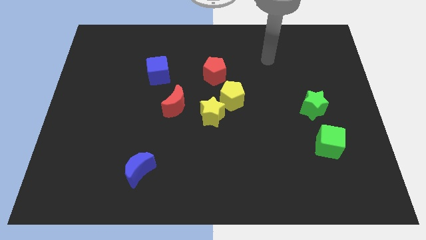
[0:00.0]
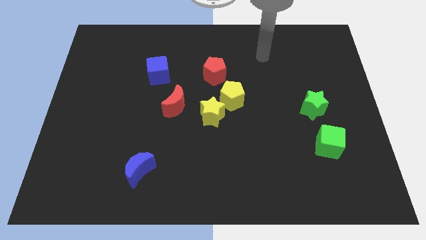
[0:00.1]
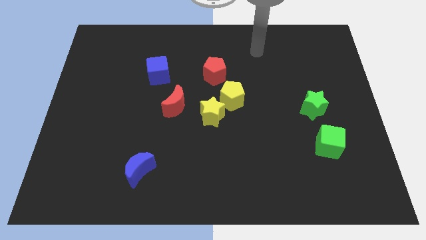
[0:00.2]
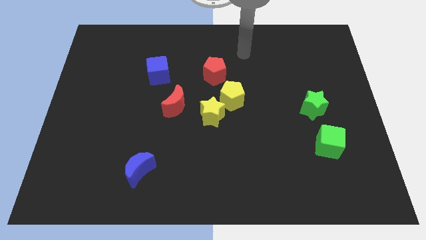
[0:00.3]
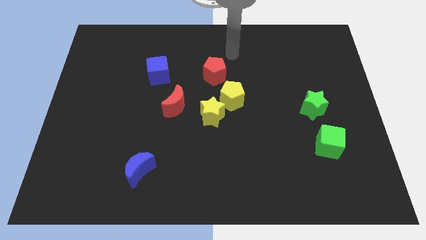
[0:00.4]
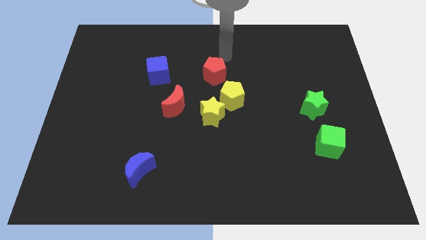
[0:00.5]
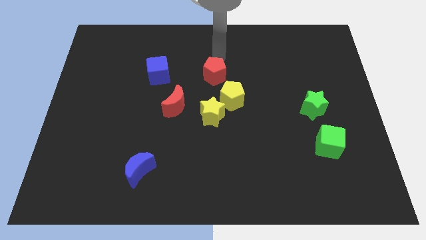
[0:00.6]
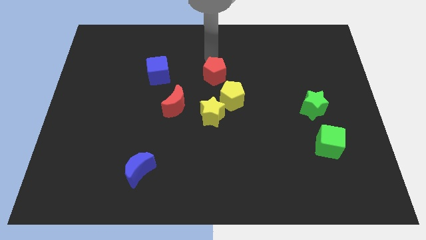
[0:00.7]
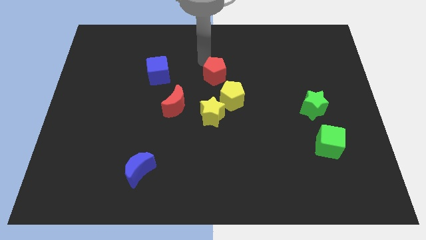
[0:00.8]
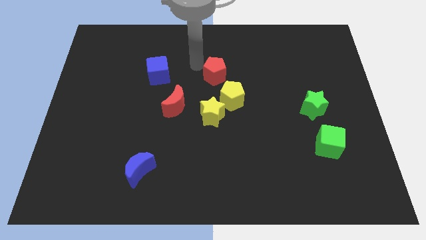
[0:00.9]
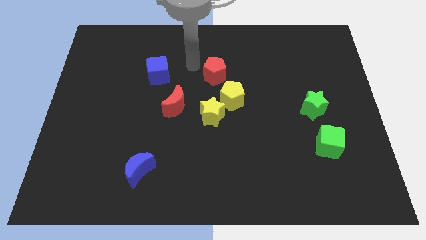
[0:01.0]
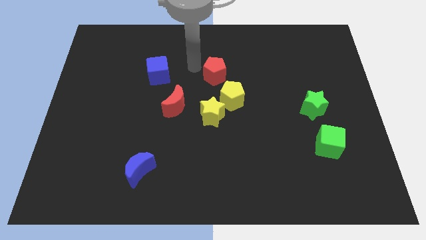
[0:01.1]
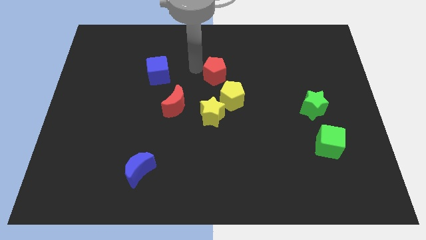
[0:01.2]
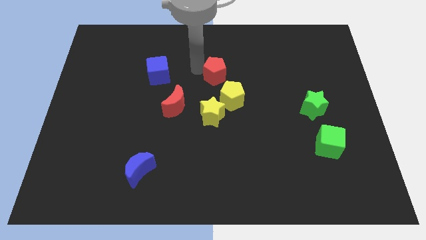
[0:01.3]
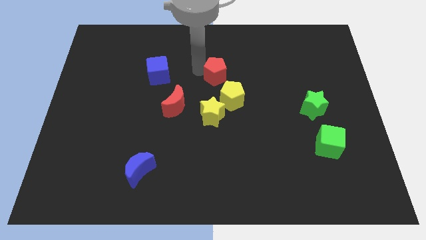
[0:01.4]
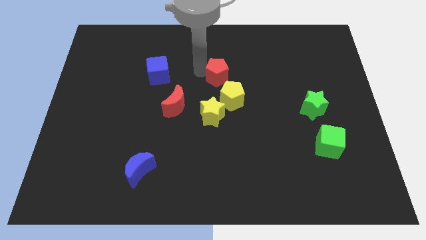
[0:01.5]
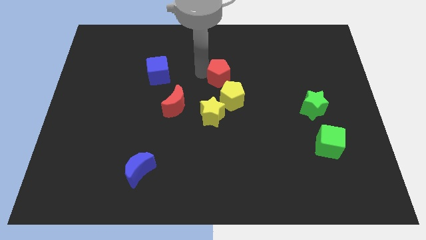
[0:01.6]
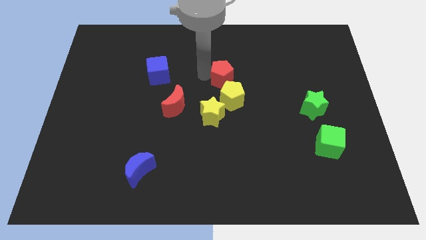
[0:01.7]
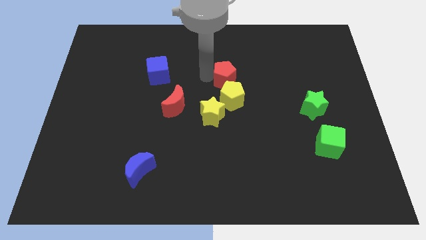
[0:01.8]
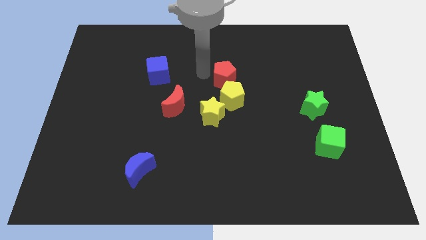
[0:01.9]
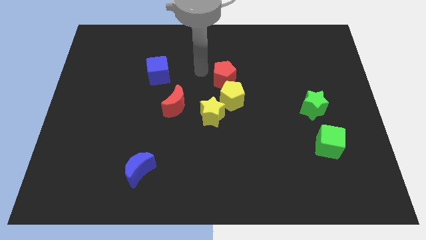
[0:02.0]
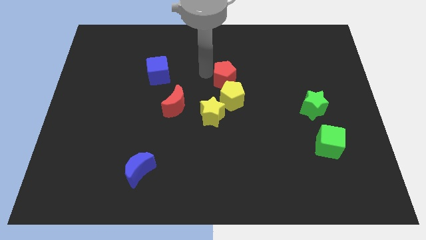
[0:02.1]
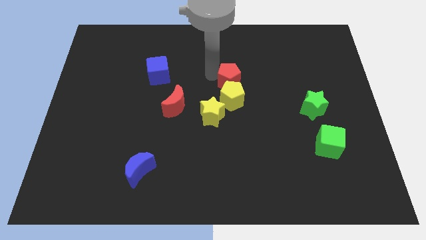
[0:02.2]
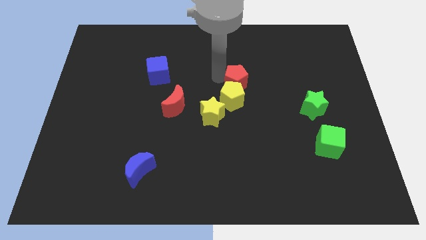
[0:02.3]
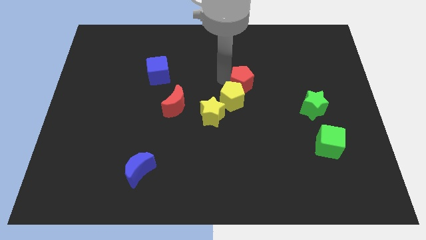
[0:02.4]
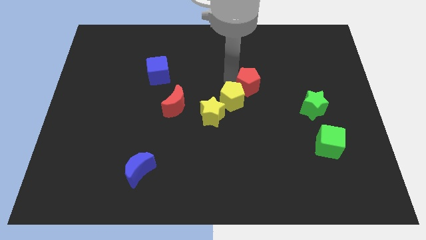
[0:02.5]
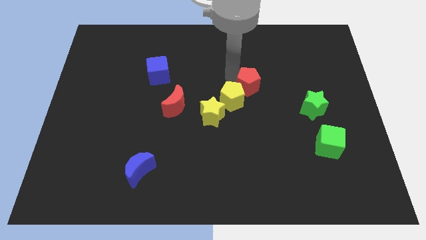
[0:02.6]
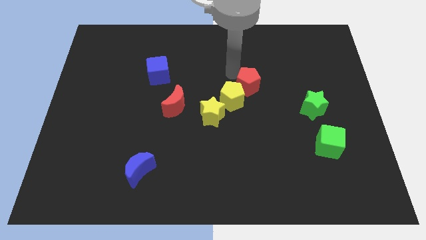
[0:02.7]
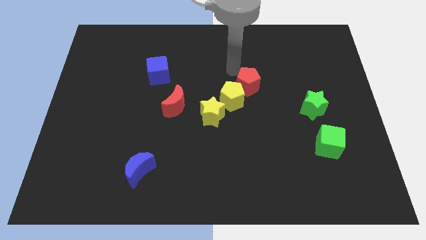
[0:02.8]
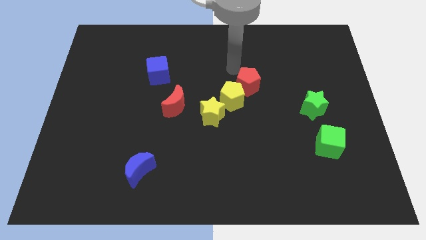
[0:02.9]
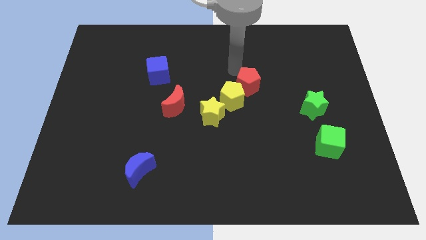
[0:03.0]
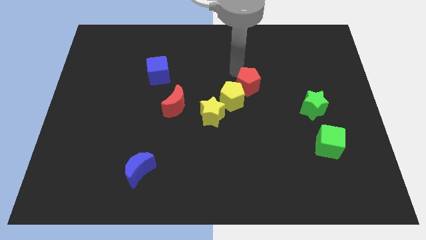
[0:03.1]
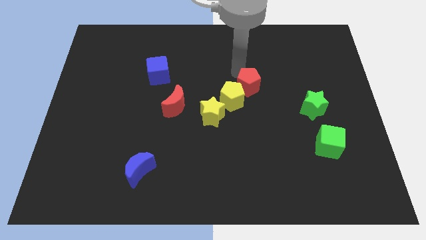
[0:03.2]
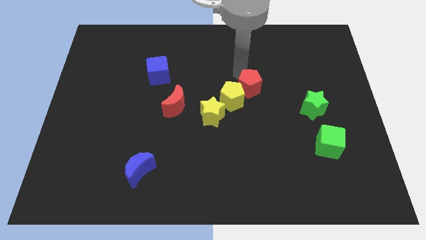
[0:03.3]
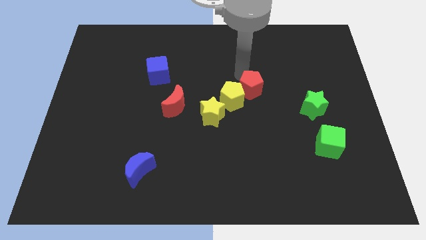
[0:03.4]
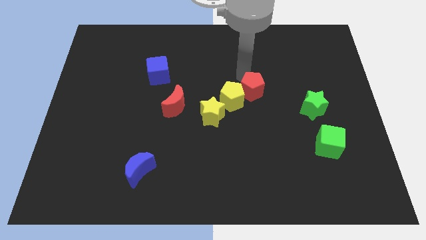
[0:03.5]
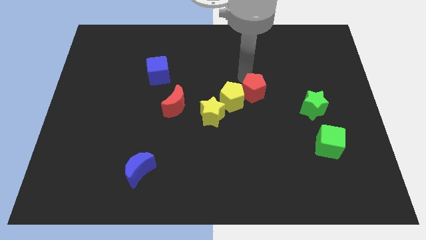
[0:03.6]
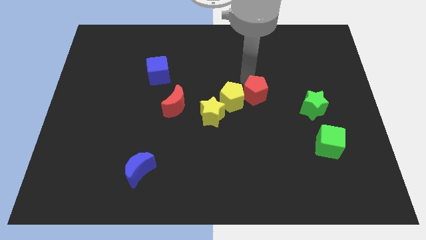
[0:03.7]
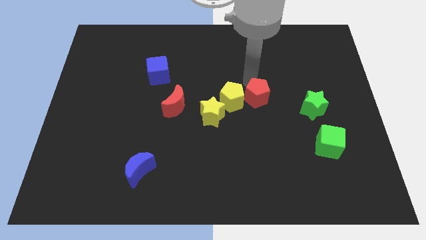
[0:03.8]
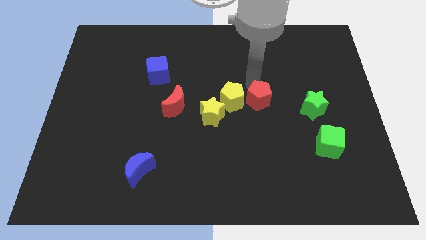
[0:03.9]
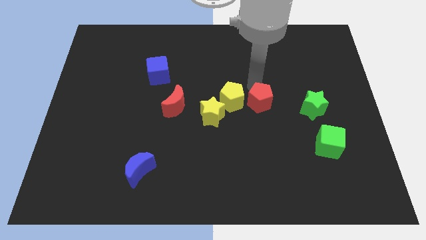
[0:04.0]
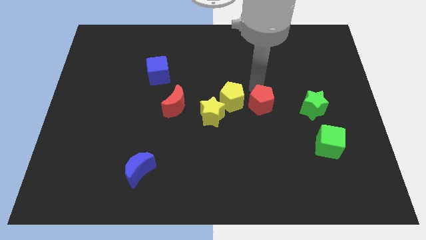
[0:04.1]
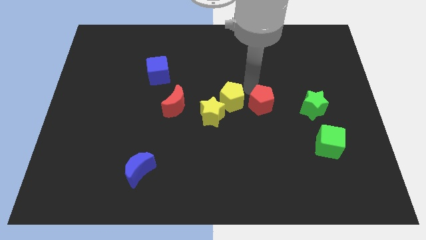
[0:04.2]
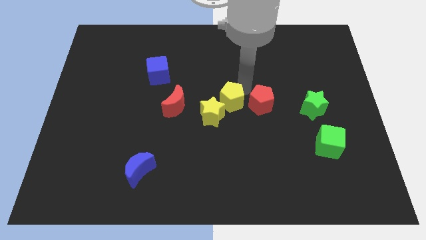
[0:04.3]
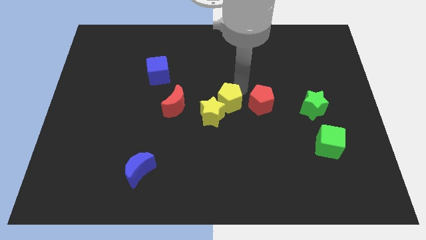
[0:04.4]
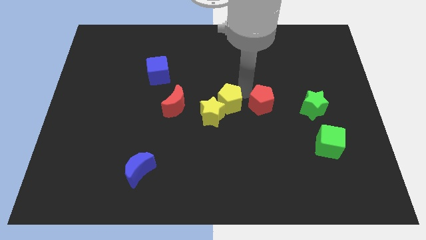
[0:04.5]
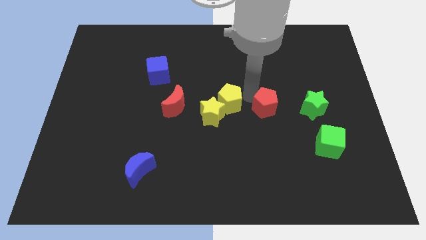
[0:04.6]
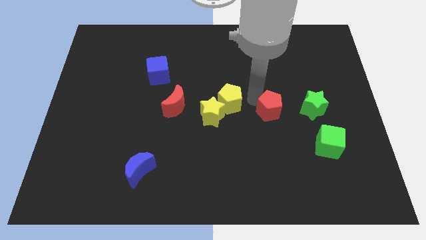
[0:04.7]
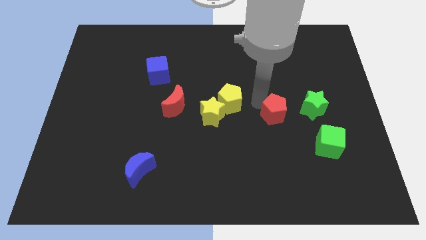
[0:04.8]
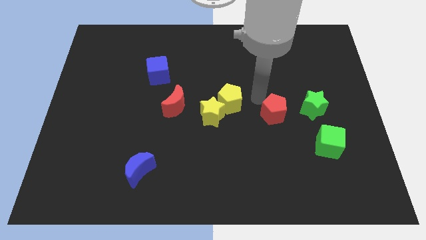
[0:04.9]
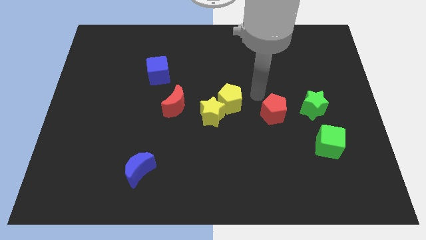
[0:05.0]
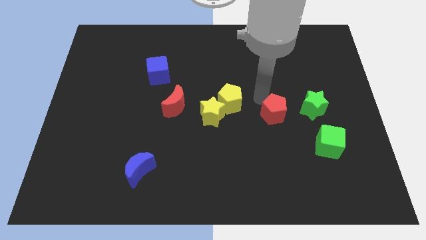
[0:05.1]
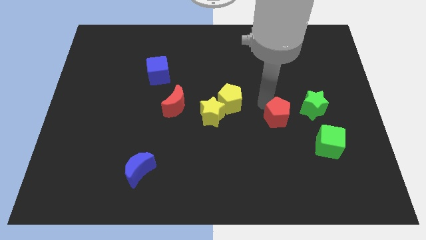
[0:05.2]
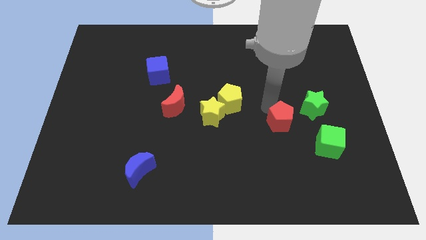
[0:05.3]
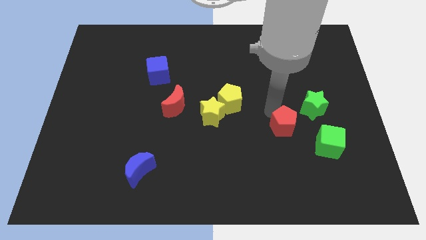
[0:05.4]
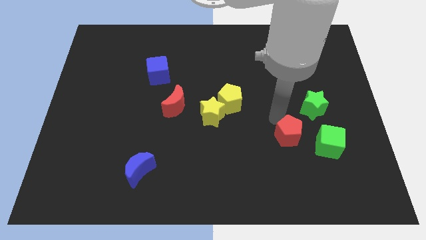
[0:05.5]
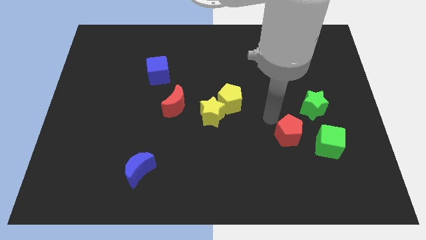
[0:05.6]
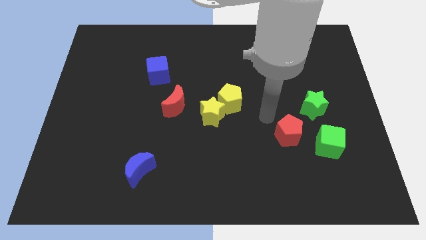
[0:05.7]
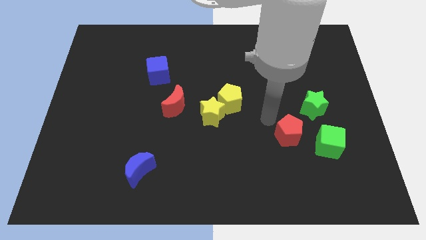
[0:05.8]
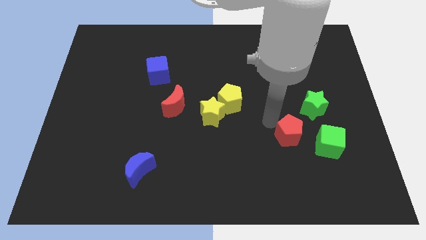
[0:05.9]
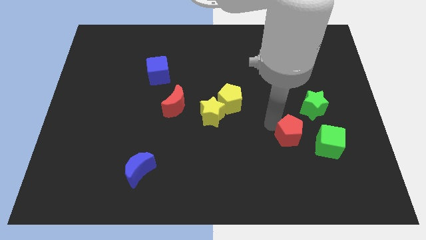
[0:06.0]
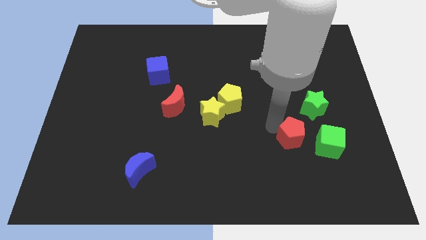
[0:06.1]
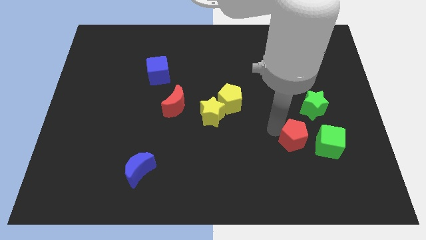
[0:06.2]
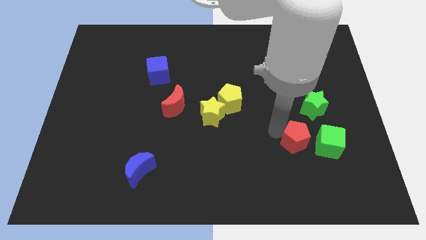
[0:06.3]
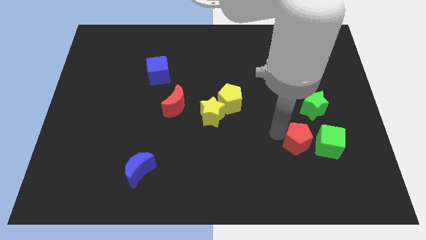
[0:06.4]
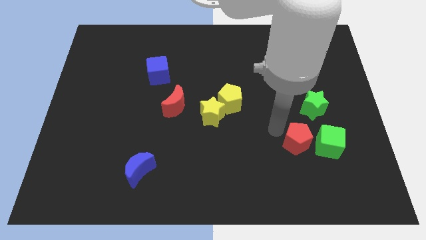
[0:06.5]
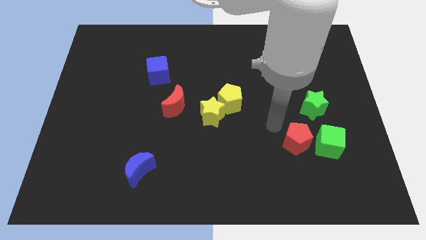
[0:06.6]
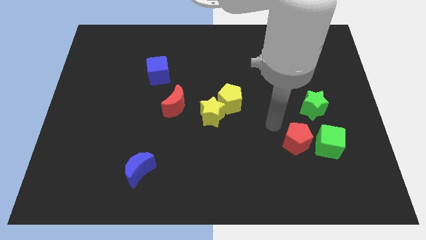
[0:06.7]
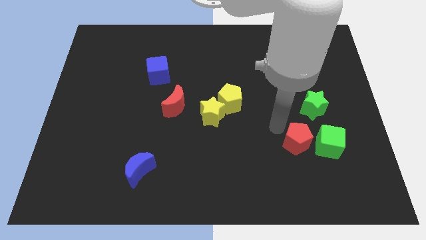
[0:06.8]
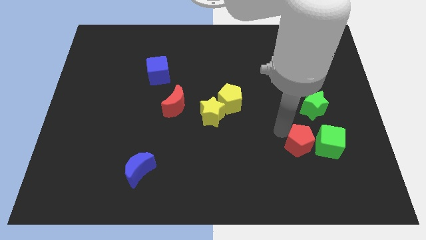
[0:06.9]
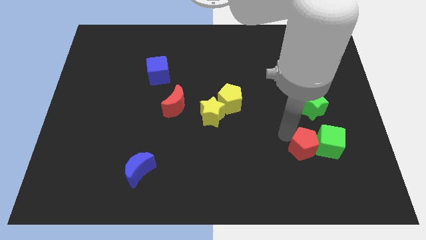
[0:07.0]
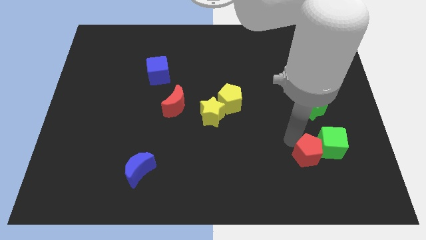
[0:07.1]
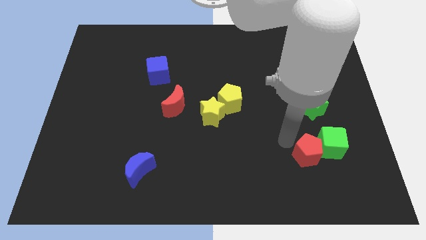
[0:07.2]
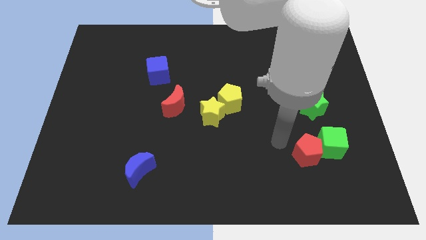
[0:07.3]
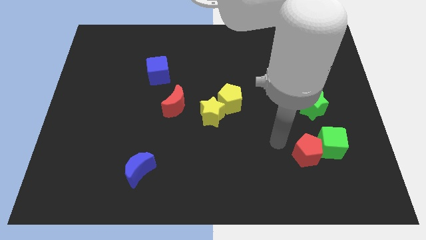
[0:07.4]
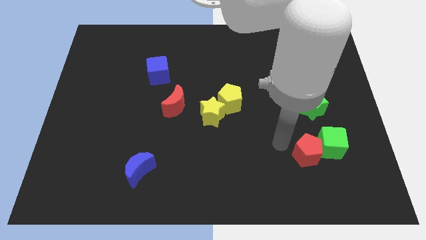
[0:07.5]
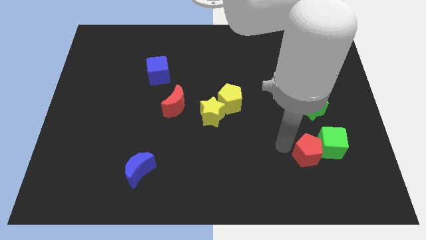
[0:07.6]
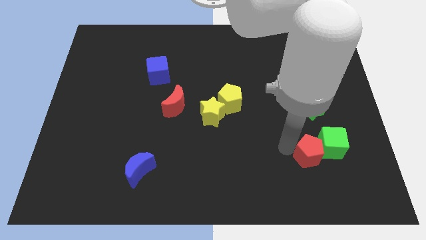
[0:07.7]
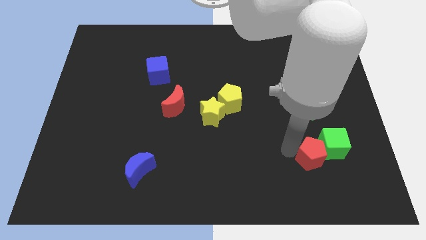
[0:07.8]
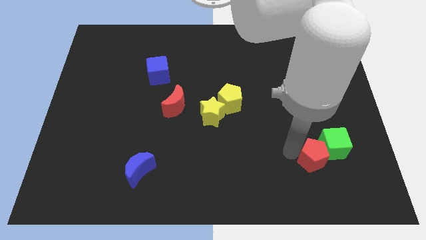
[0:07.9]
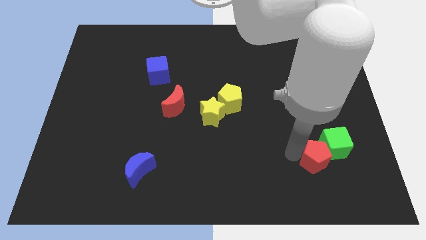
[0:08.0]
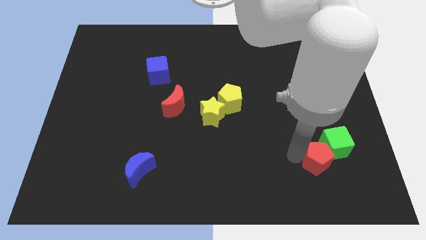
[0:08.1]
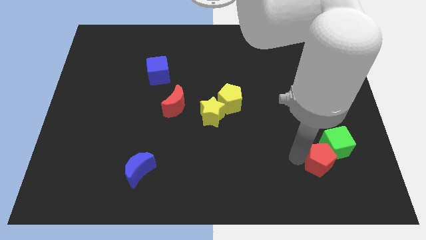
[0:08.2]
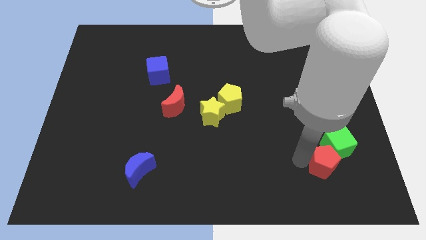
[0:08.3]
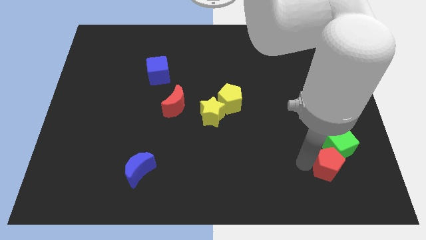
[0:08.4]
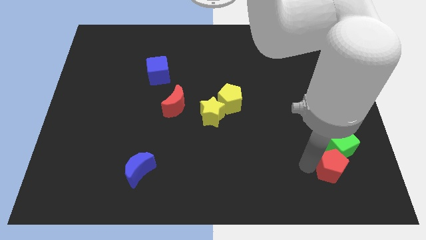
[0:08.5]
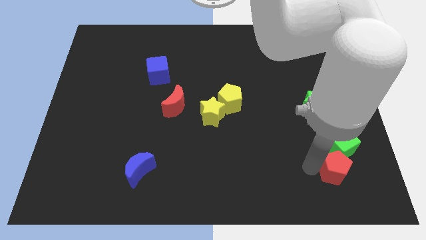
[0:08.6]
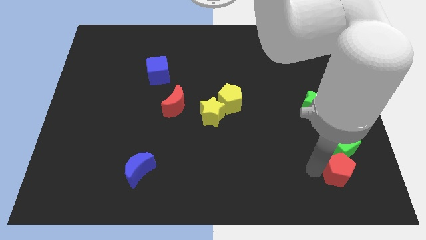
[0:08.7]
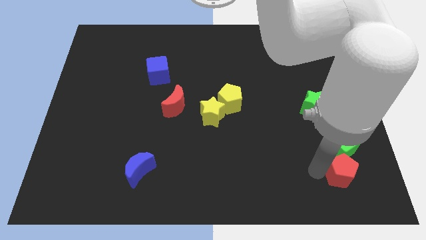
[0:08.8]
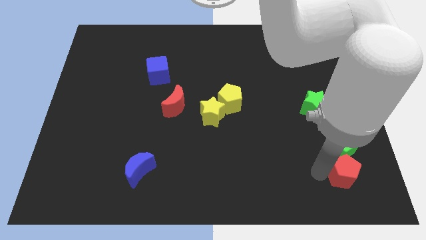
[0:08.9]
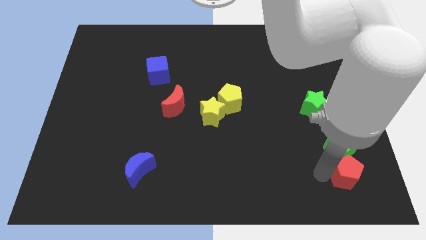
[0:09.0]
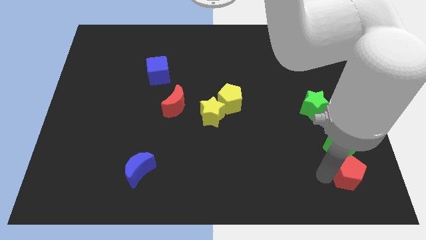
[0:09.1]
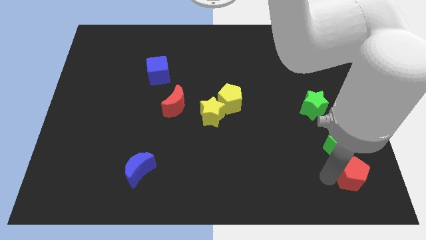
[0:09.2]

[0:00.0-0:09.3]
slide the red pentagon to the lower right corner
